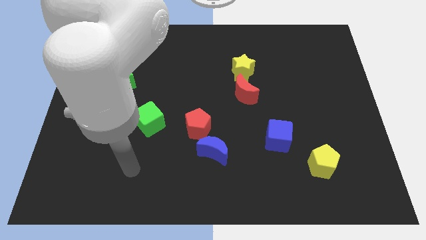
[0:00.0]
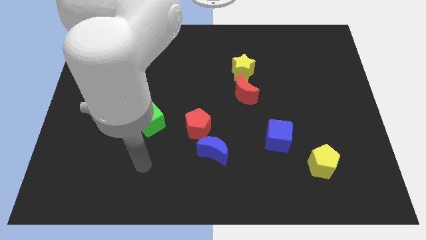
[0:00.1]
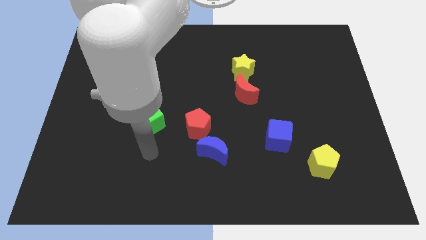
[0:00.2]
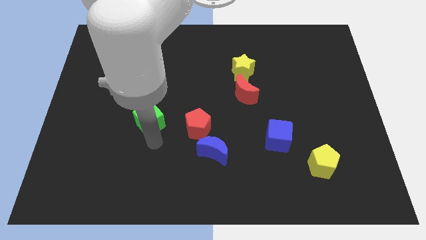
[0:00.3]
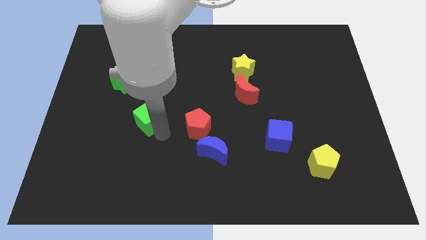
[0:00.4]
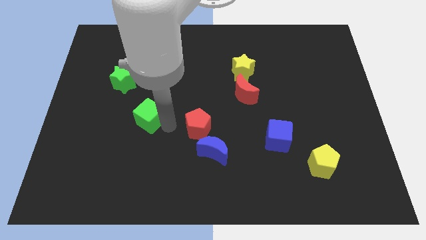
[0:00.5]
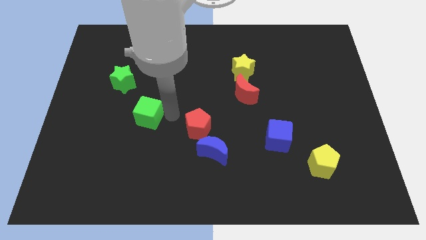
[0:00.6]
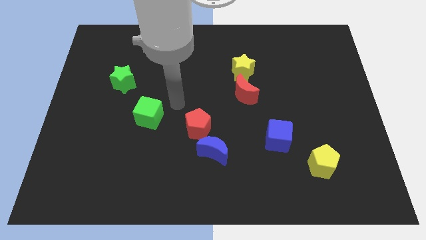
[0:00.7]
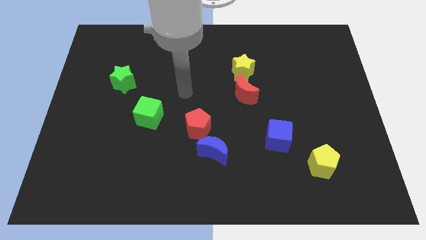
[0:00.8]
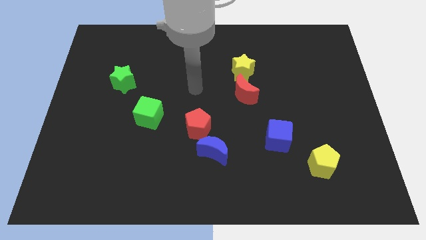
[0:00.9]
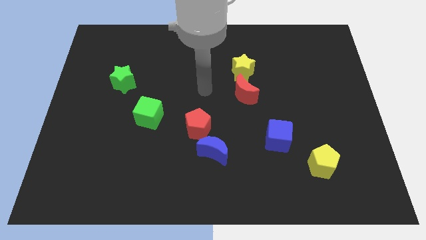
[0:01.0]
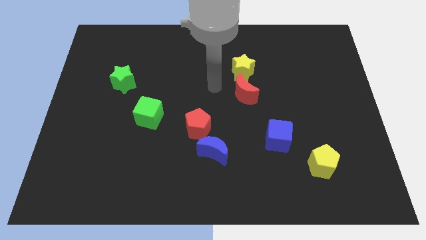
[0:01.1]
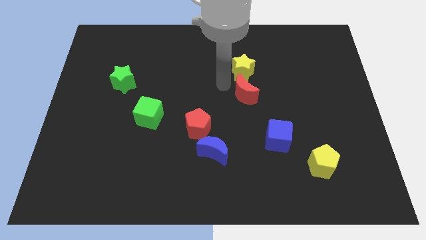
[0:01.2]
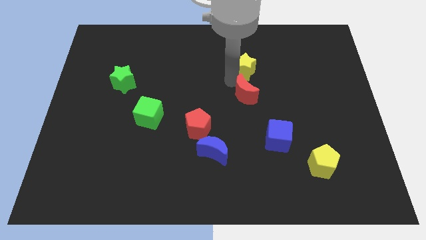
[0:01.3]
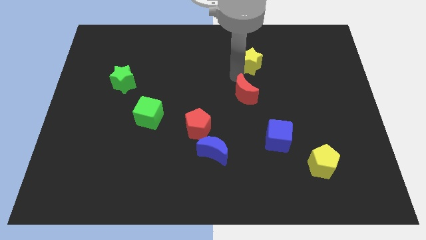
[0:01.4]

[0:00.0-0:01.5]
move the red moon away from the yellow star

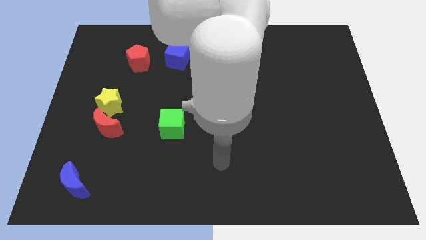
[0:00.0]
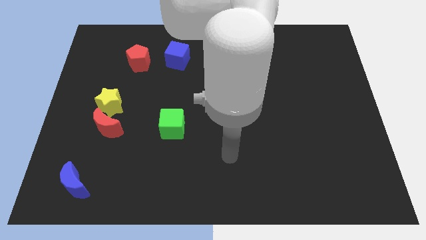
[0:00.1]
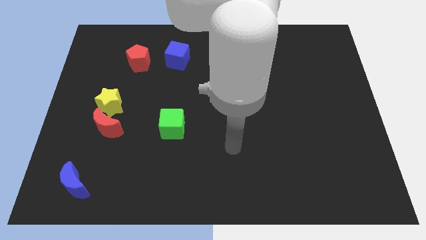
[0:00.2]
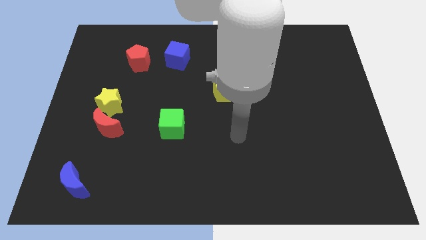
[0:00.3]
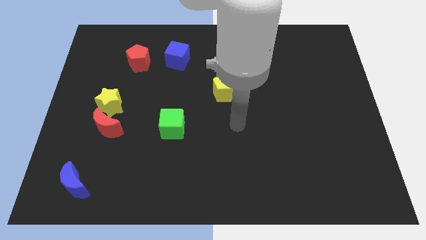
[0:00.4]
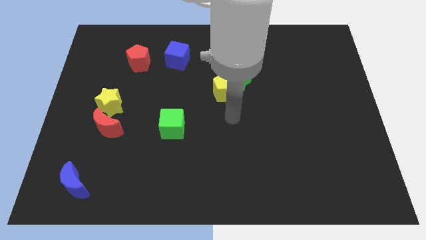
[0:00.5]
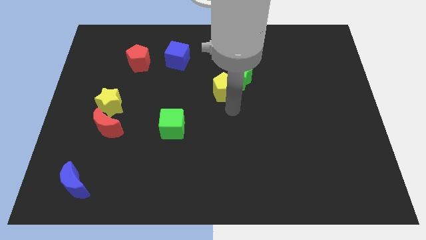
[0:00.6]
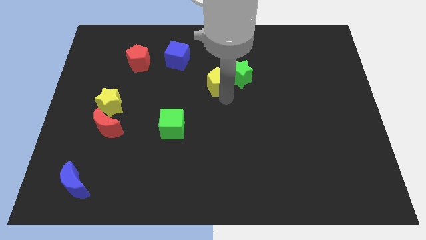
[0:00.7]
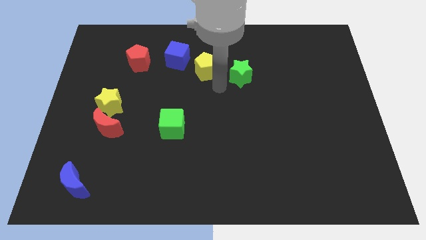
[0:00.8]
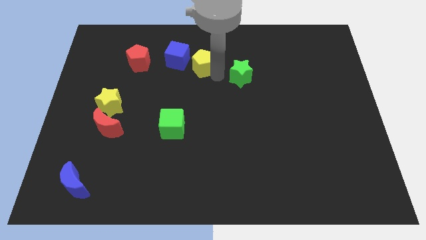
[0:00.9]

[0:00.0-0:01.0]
move the green star away from the yellow pentagon

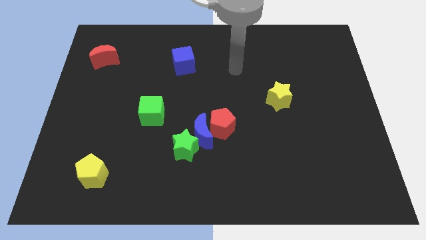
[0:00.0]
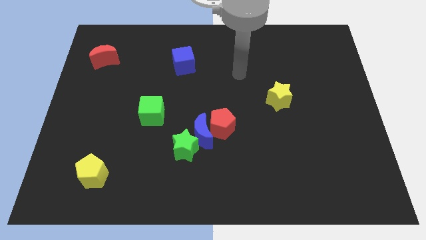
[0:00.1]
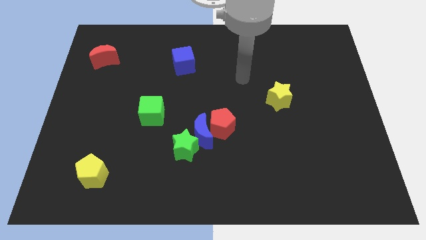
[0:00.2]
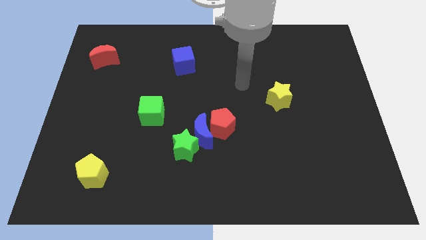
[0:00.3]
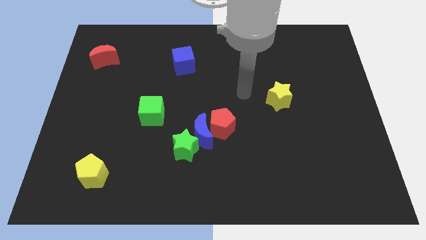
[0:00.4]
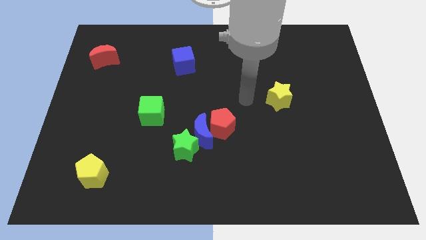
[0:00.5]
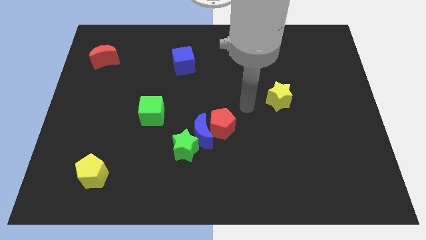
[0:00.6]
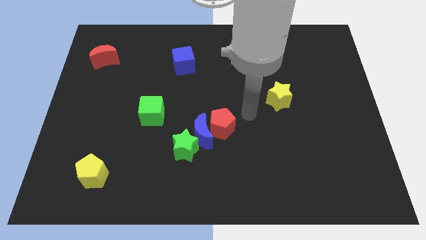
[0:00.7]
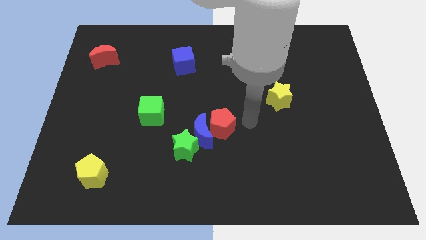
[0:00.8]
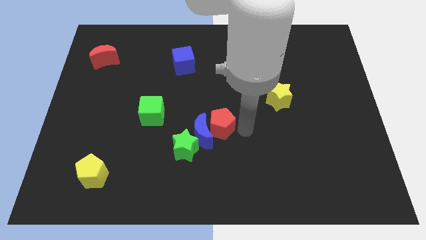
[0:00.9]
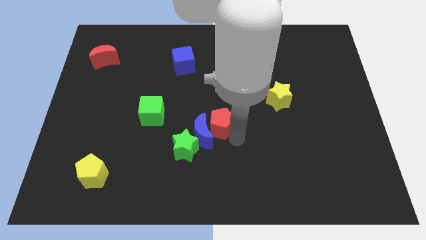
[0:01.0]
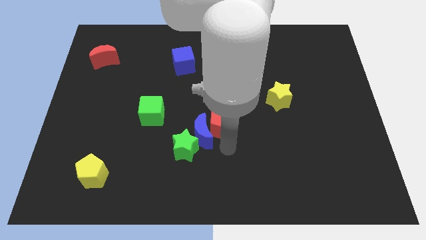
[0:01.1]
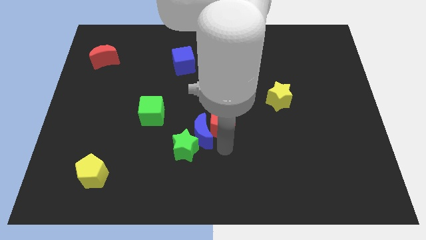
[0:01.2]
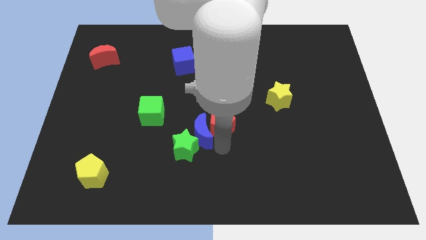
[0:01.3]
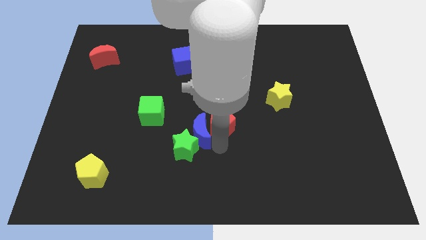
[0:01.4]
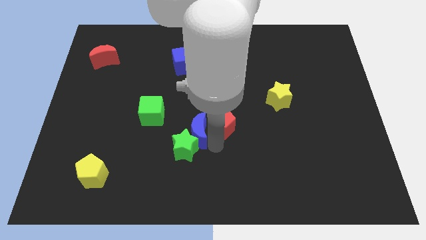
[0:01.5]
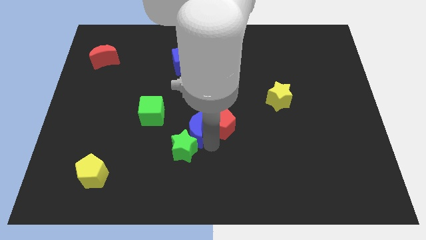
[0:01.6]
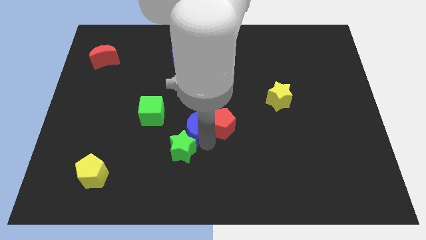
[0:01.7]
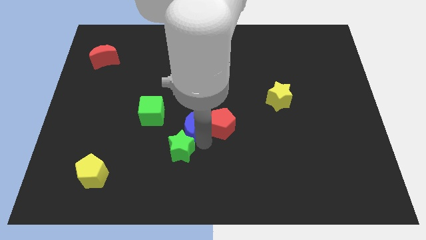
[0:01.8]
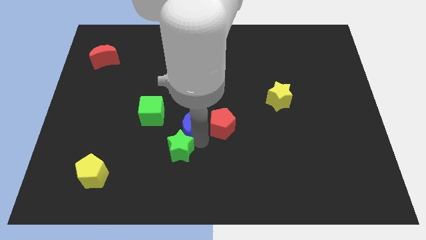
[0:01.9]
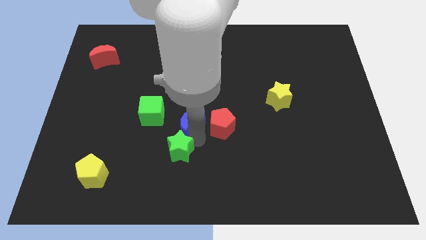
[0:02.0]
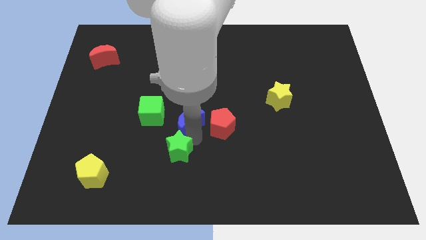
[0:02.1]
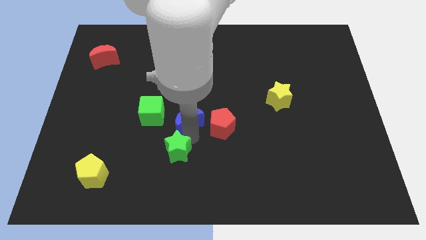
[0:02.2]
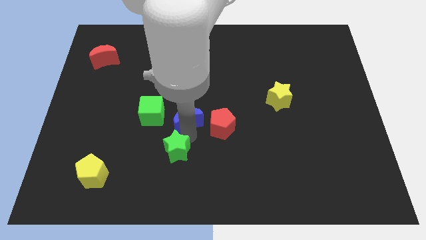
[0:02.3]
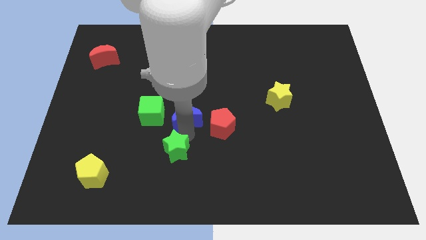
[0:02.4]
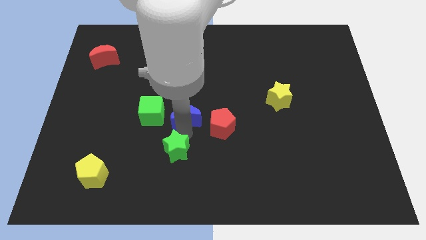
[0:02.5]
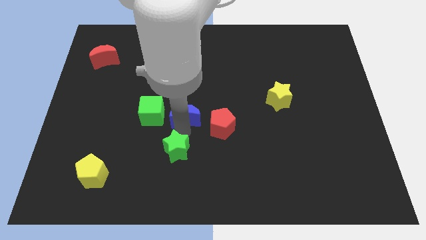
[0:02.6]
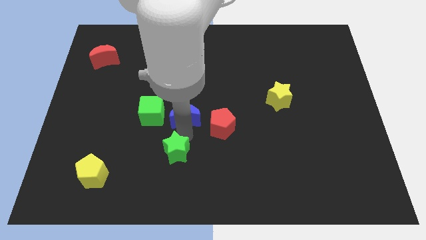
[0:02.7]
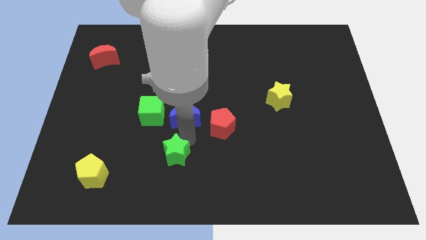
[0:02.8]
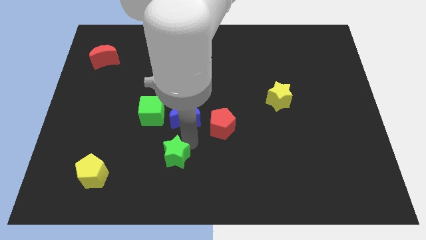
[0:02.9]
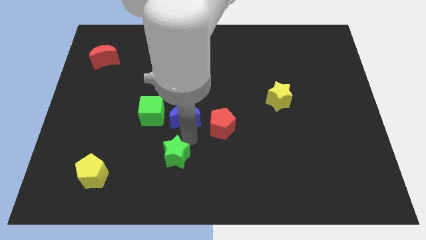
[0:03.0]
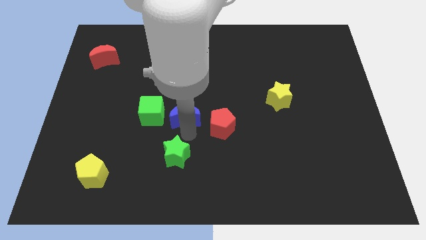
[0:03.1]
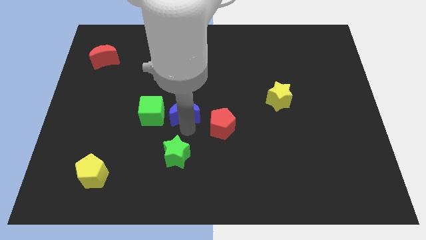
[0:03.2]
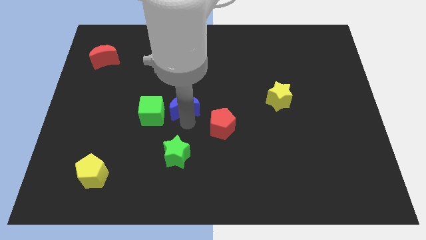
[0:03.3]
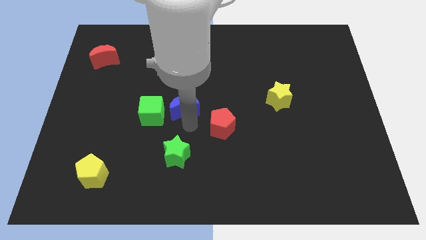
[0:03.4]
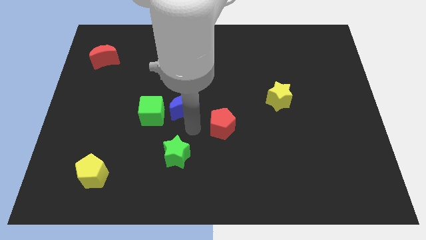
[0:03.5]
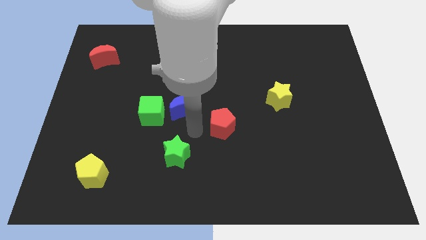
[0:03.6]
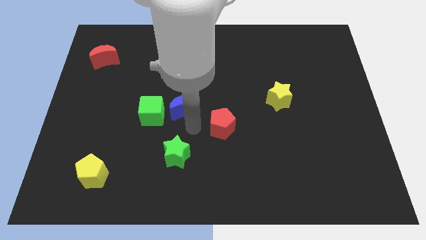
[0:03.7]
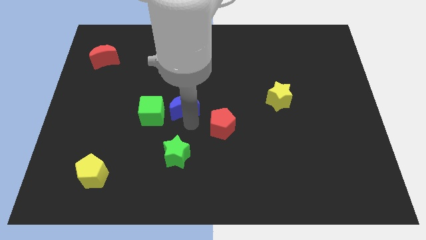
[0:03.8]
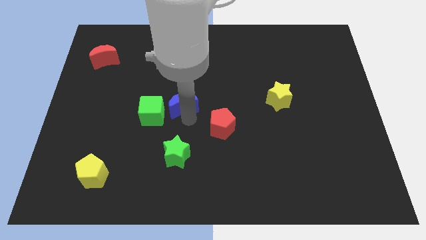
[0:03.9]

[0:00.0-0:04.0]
separate the blue moon from the red pentagon and green star

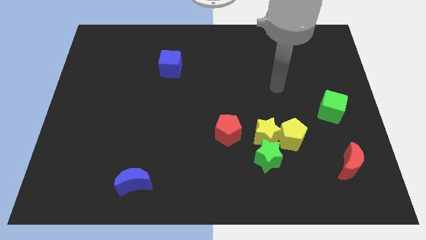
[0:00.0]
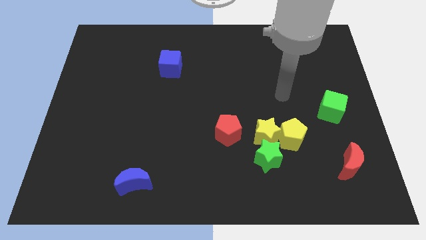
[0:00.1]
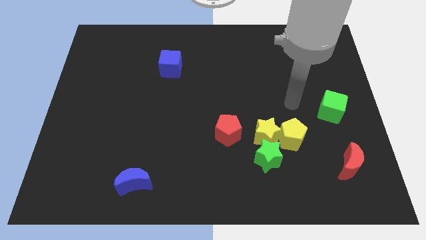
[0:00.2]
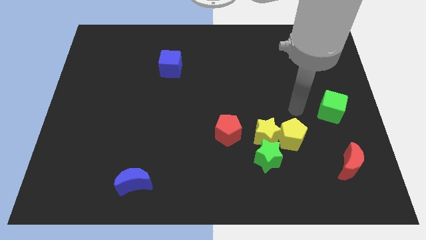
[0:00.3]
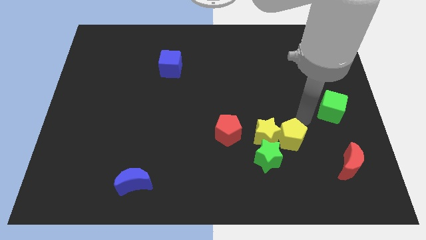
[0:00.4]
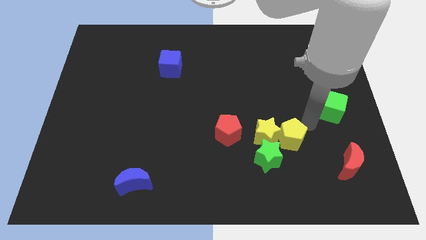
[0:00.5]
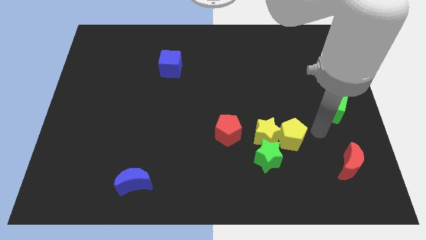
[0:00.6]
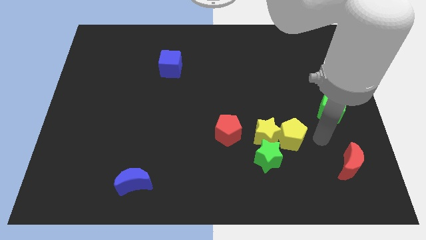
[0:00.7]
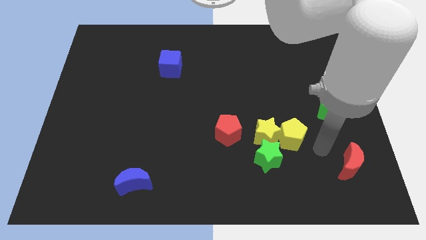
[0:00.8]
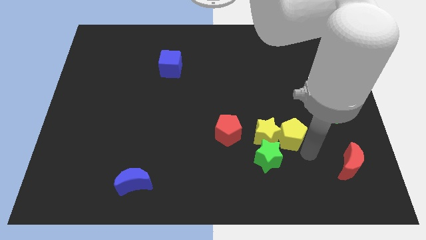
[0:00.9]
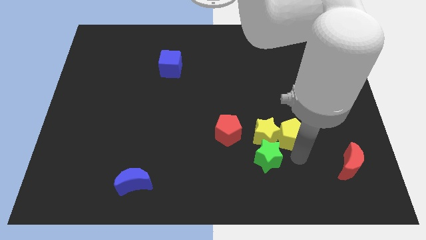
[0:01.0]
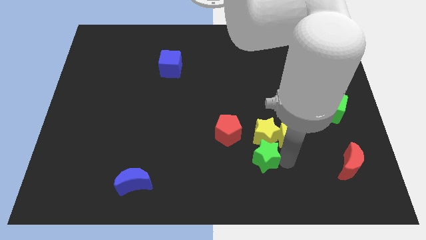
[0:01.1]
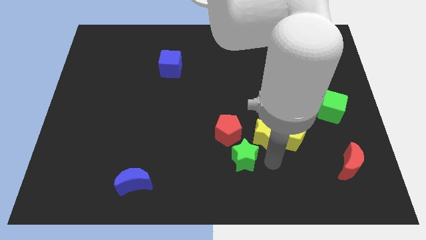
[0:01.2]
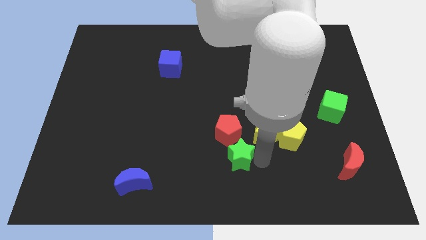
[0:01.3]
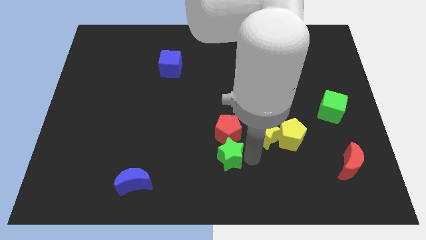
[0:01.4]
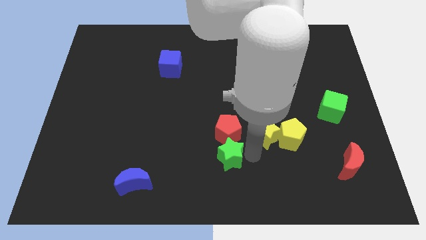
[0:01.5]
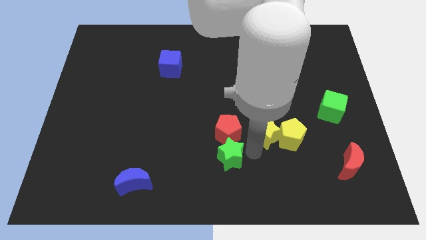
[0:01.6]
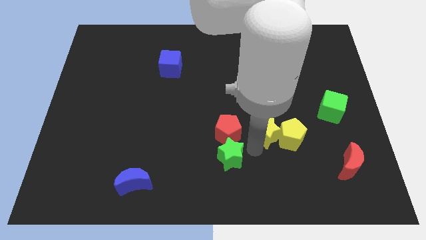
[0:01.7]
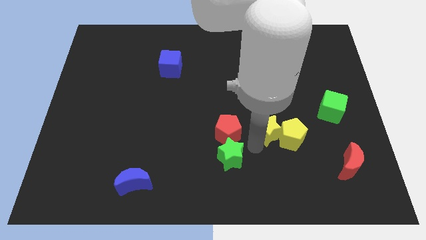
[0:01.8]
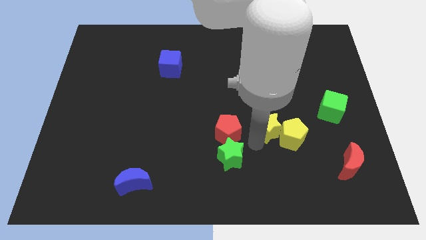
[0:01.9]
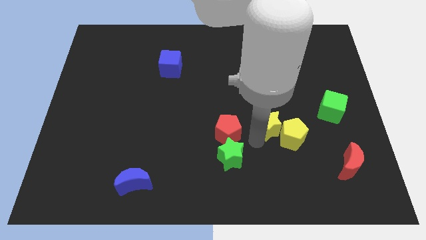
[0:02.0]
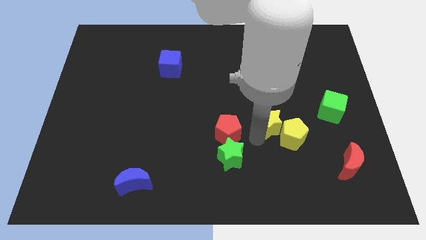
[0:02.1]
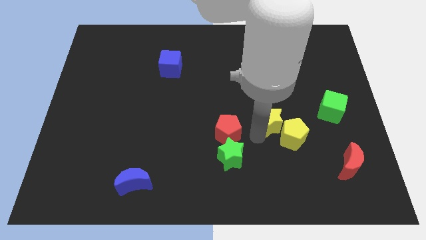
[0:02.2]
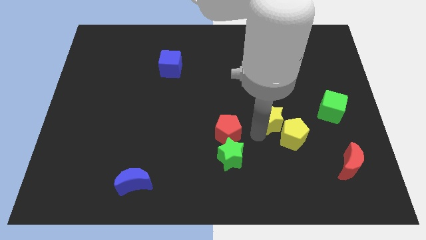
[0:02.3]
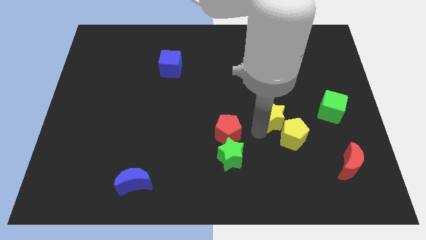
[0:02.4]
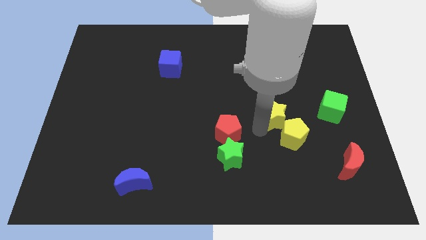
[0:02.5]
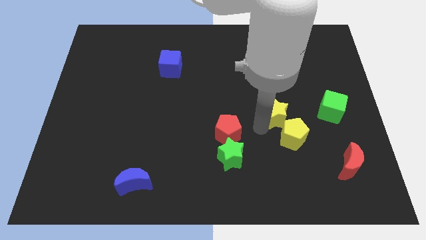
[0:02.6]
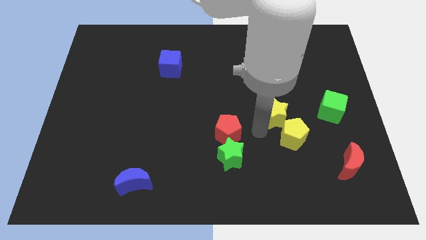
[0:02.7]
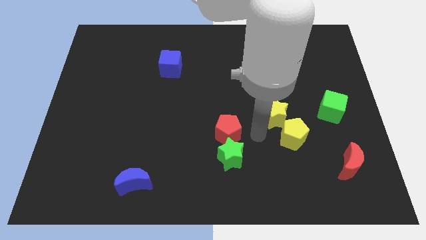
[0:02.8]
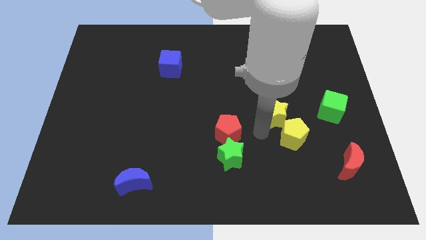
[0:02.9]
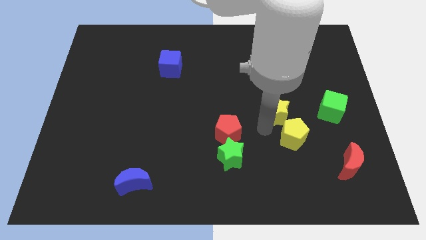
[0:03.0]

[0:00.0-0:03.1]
pull the yellow star apart from the clump
